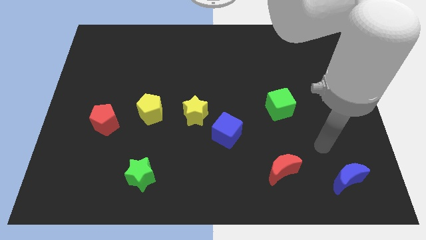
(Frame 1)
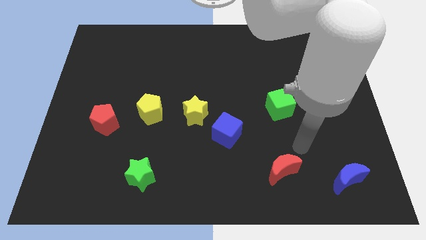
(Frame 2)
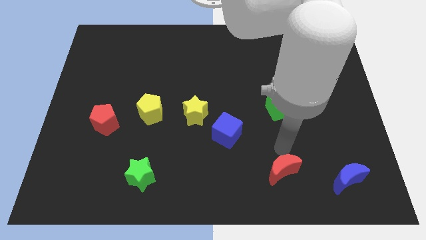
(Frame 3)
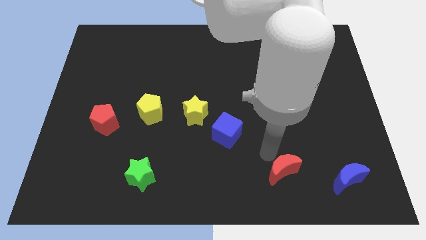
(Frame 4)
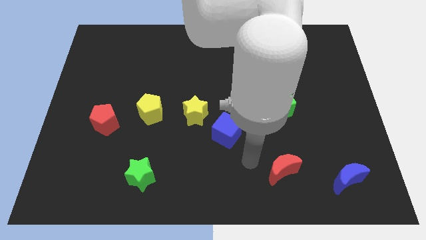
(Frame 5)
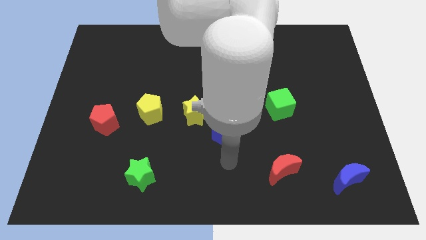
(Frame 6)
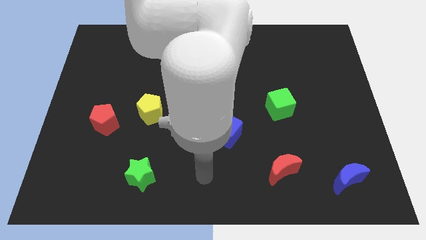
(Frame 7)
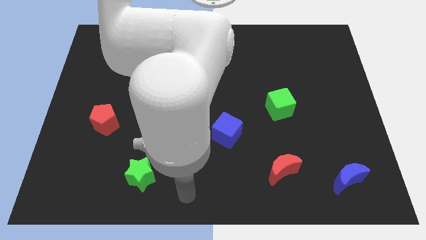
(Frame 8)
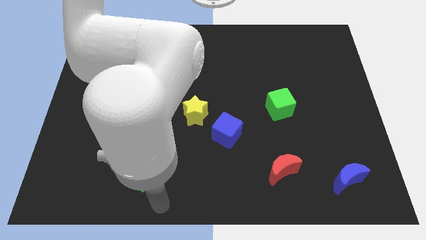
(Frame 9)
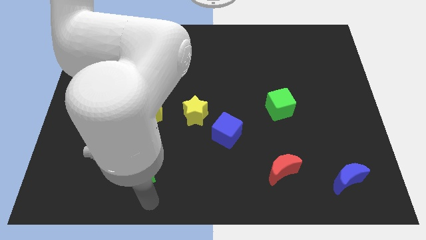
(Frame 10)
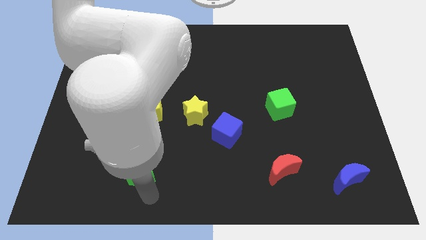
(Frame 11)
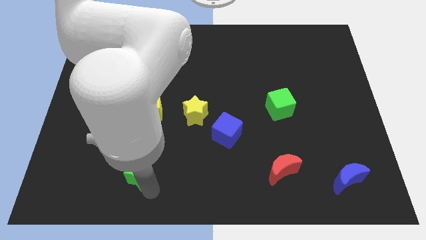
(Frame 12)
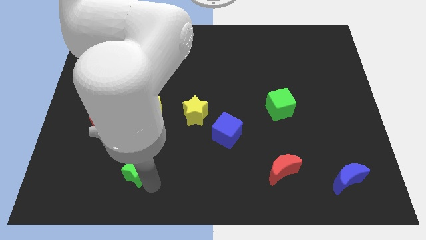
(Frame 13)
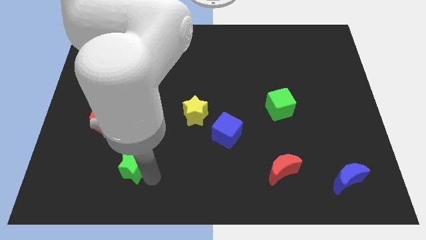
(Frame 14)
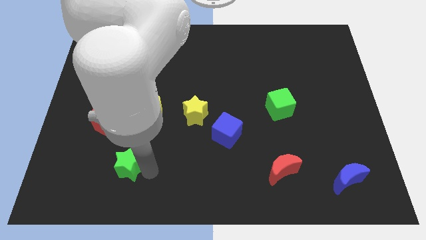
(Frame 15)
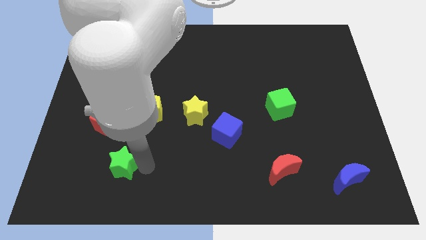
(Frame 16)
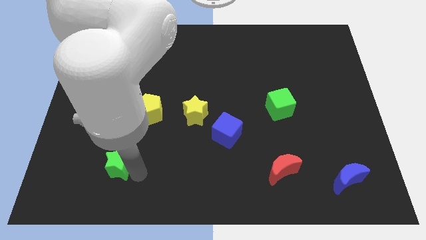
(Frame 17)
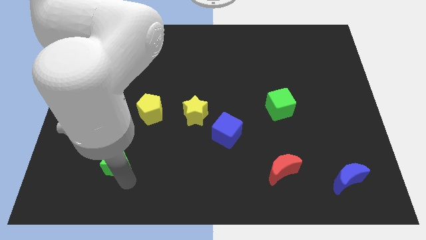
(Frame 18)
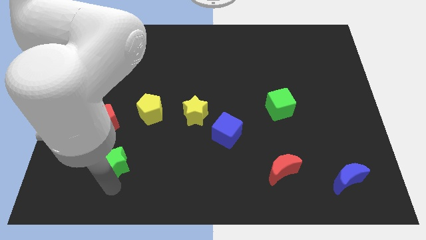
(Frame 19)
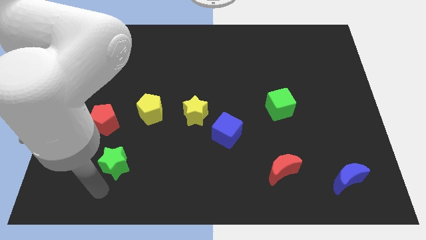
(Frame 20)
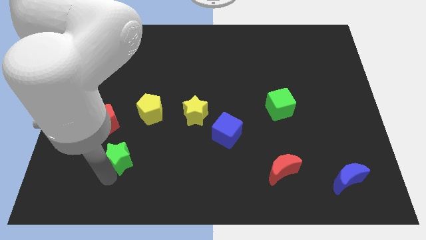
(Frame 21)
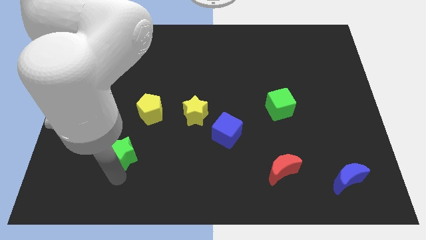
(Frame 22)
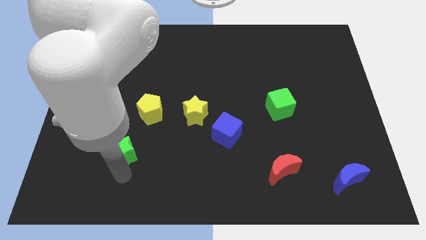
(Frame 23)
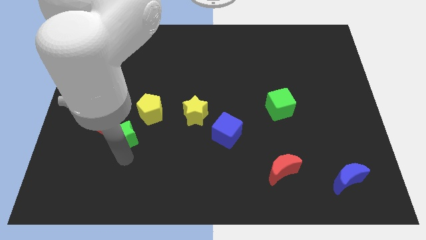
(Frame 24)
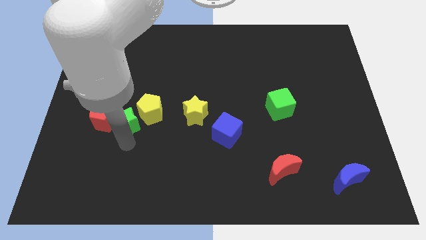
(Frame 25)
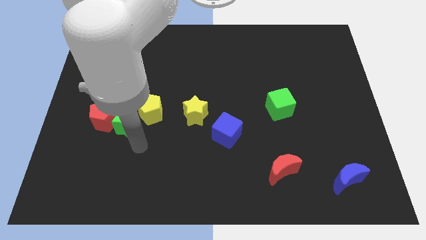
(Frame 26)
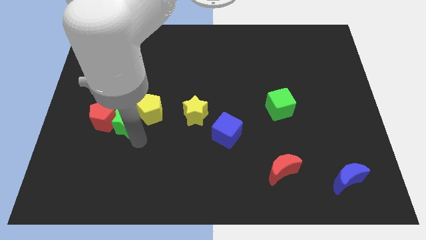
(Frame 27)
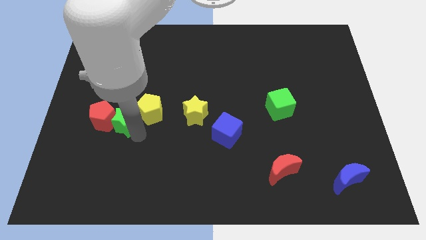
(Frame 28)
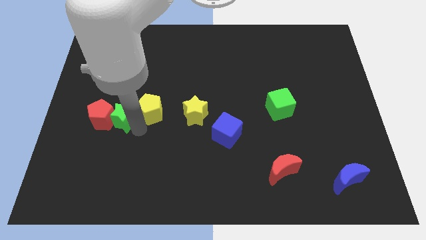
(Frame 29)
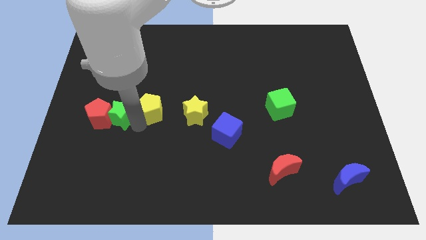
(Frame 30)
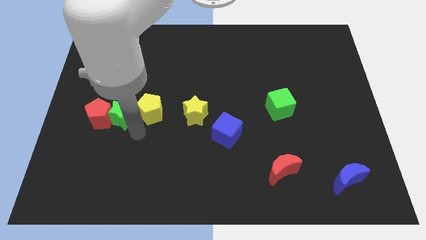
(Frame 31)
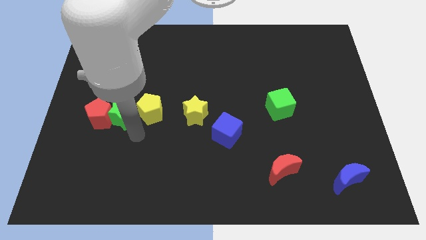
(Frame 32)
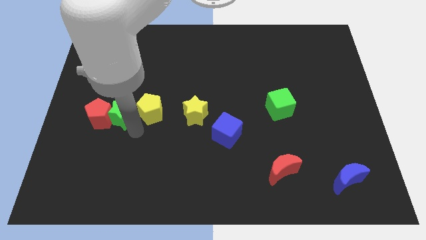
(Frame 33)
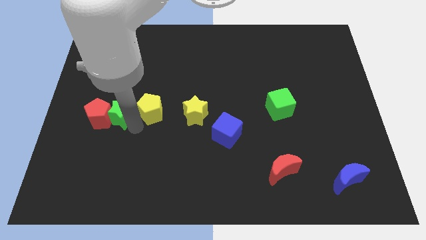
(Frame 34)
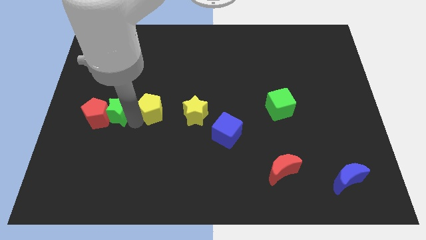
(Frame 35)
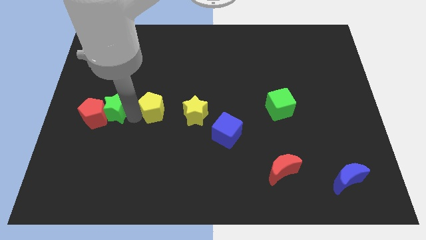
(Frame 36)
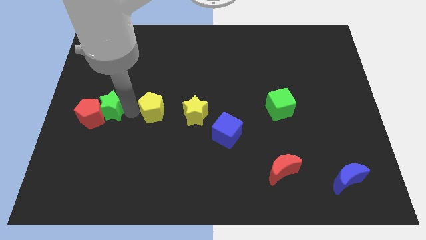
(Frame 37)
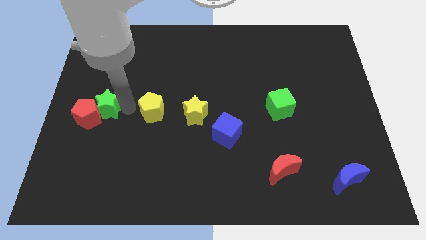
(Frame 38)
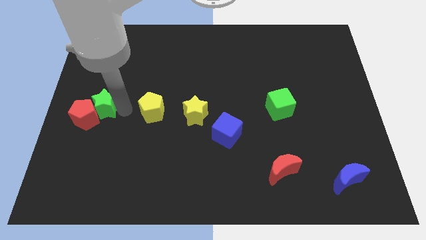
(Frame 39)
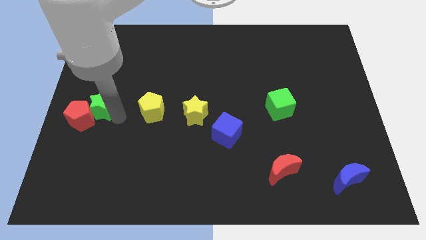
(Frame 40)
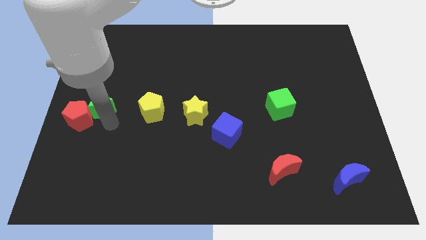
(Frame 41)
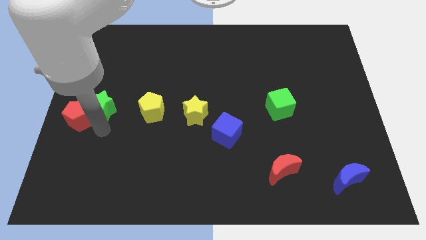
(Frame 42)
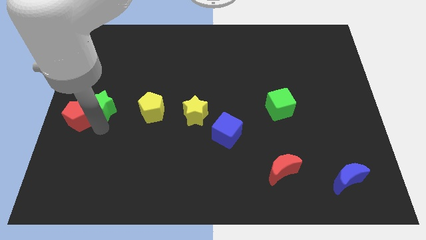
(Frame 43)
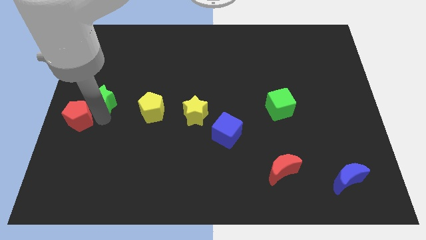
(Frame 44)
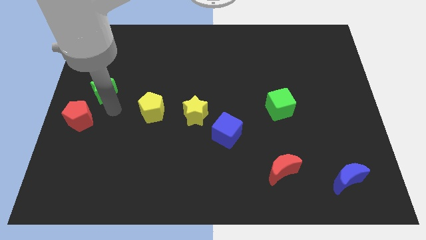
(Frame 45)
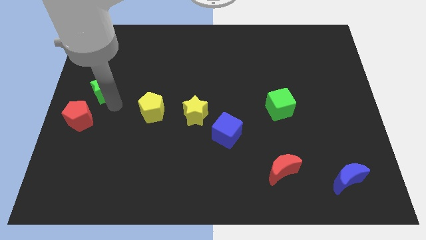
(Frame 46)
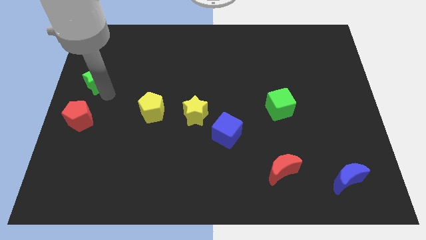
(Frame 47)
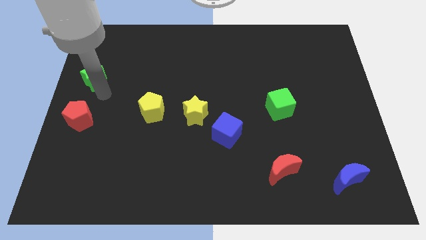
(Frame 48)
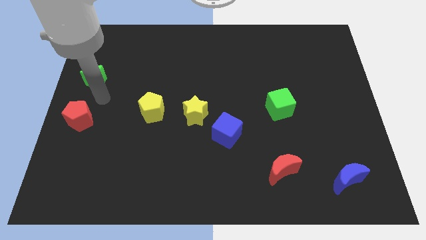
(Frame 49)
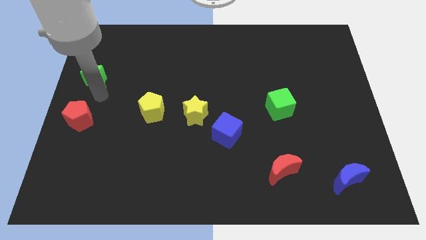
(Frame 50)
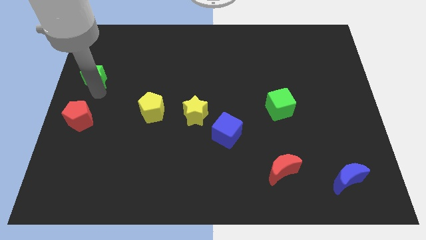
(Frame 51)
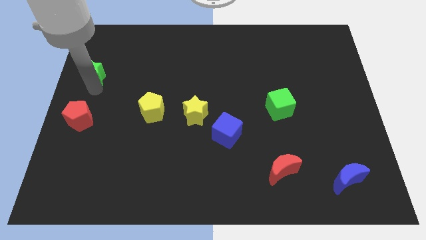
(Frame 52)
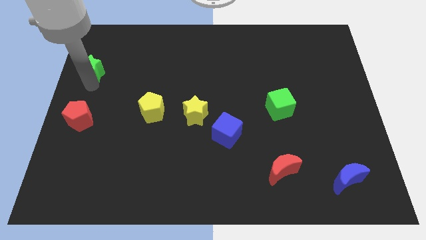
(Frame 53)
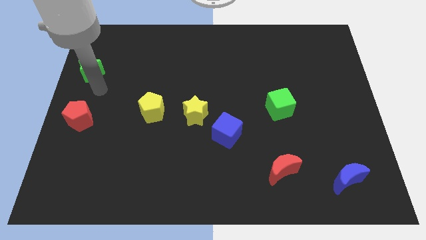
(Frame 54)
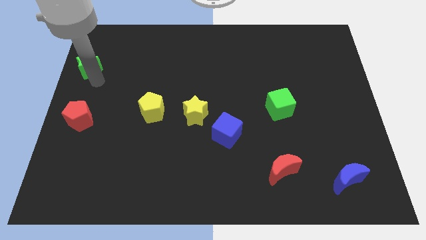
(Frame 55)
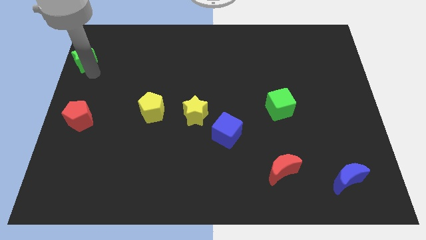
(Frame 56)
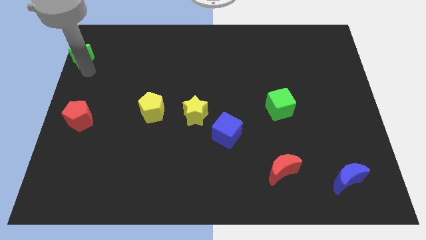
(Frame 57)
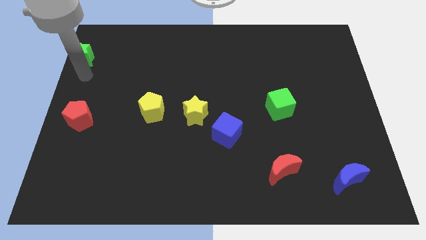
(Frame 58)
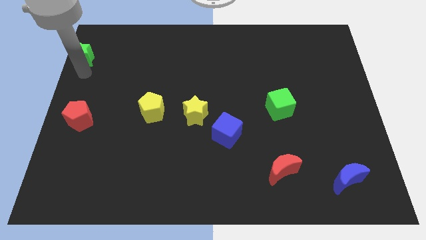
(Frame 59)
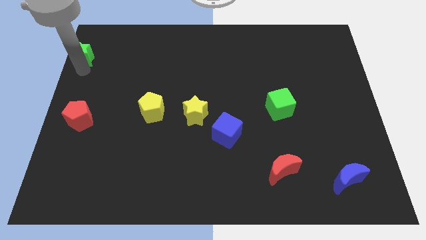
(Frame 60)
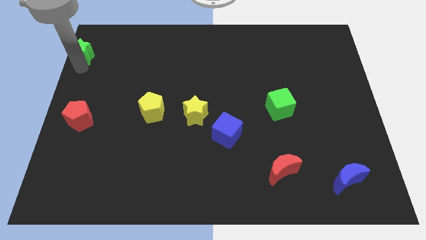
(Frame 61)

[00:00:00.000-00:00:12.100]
move the green star to the top left
